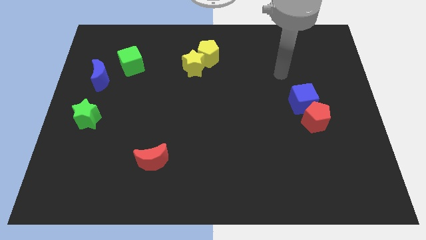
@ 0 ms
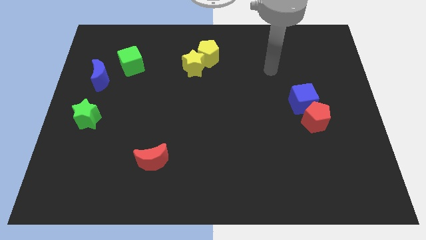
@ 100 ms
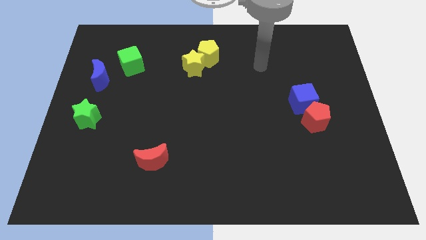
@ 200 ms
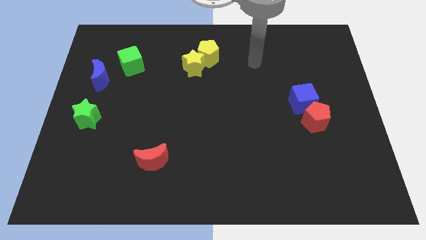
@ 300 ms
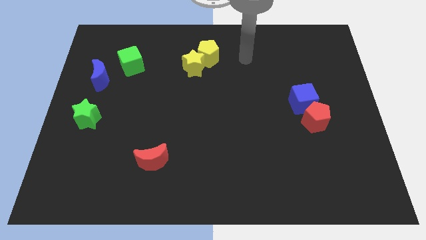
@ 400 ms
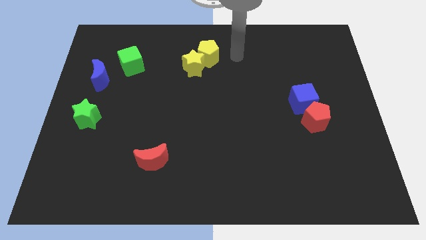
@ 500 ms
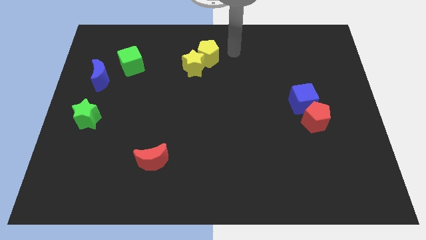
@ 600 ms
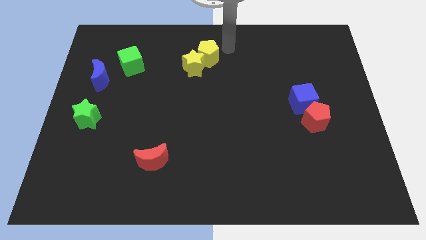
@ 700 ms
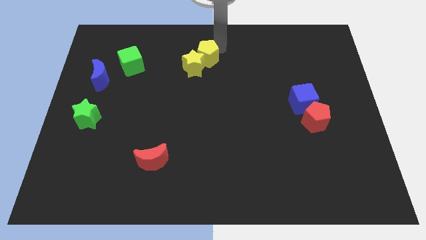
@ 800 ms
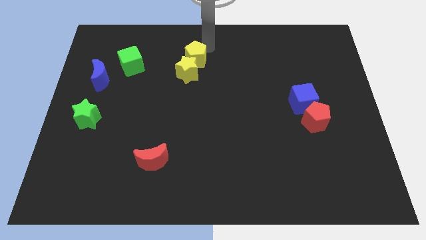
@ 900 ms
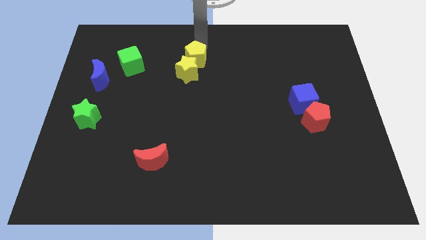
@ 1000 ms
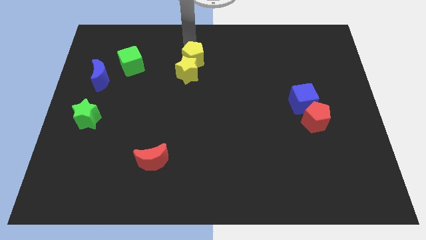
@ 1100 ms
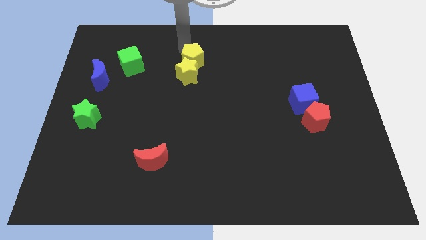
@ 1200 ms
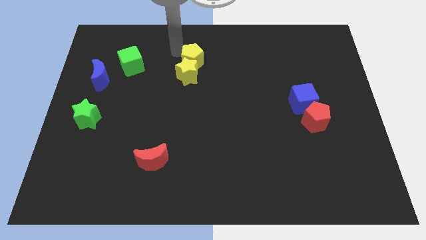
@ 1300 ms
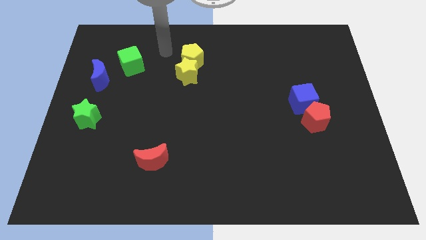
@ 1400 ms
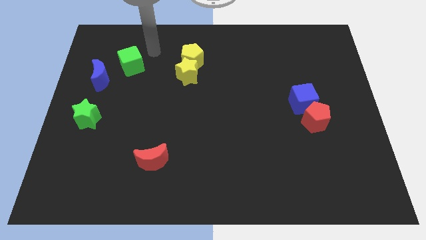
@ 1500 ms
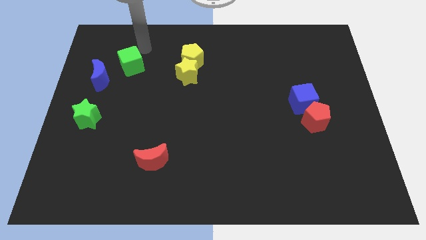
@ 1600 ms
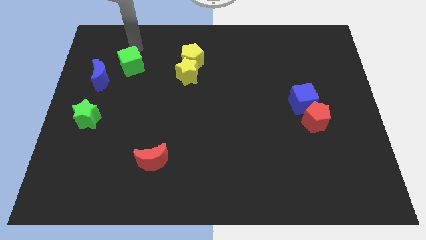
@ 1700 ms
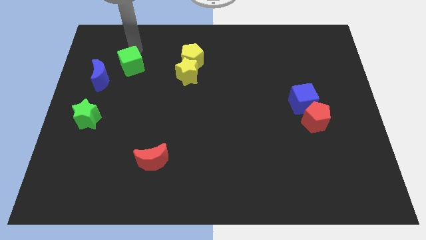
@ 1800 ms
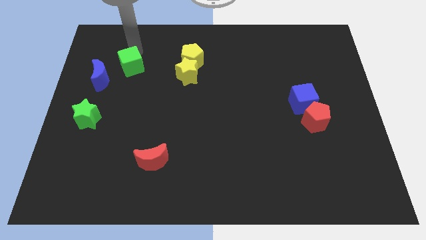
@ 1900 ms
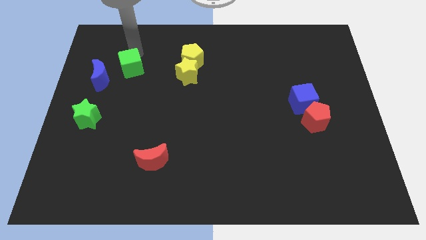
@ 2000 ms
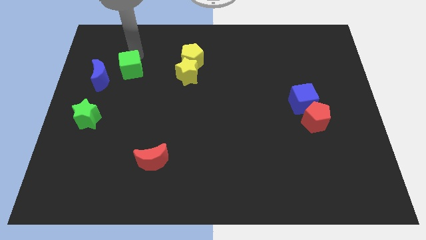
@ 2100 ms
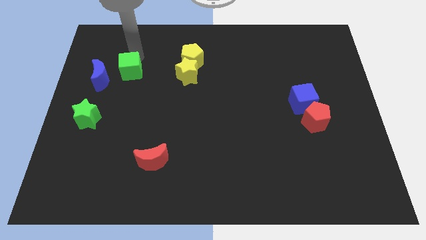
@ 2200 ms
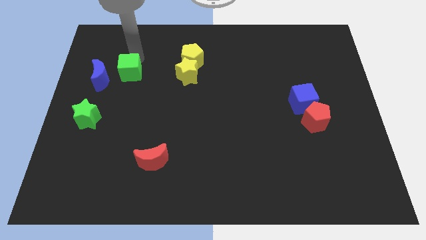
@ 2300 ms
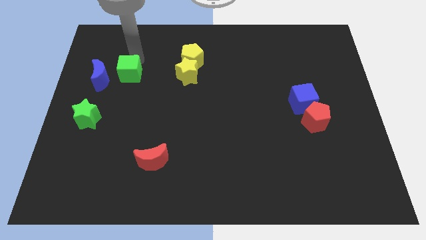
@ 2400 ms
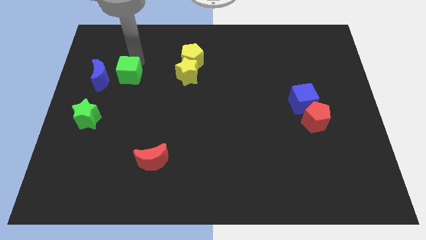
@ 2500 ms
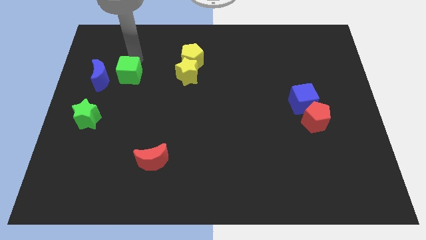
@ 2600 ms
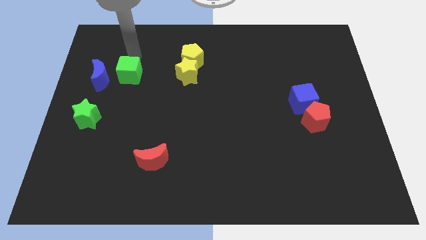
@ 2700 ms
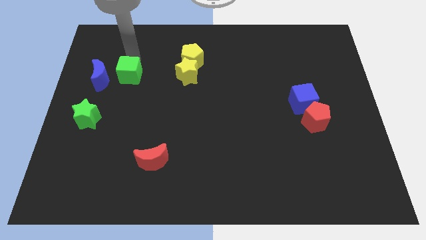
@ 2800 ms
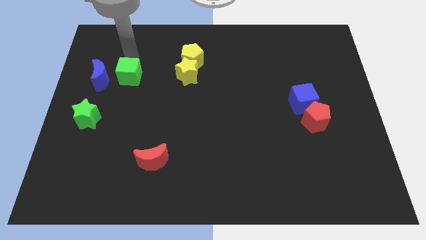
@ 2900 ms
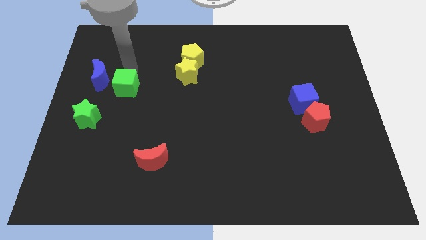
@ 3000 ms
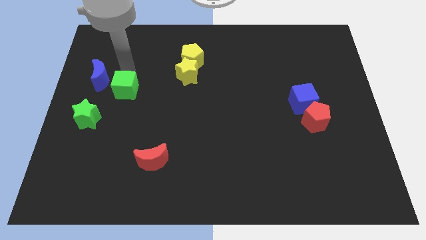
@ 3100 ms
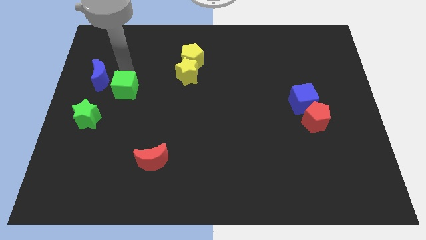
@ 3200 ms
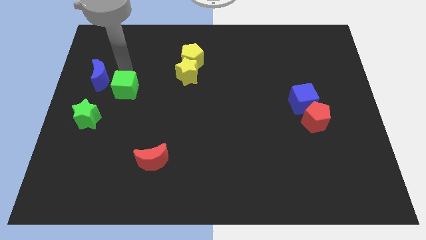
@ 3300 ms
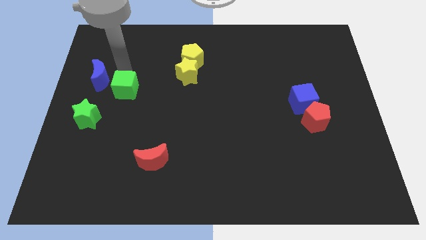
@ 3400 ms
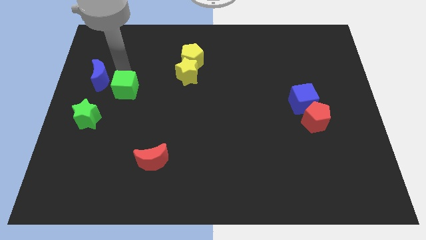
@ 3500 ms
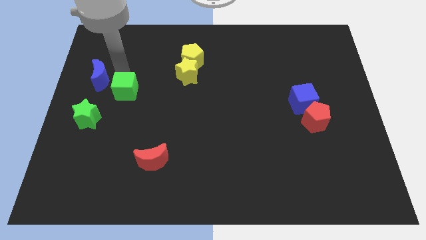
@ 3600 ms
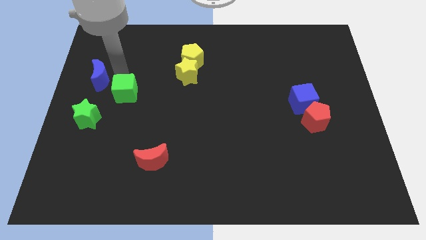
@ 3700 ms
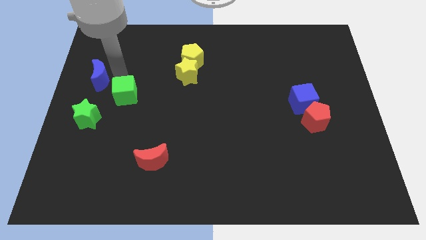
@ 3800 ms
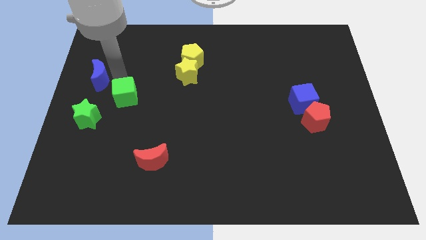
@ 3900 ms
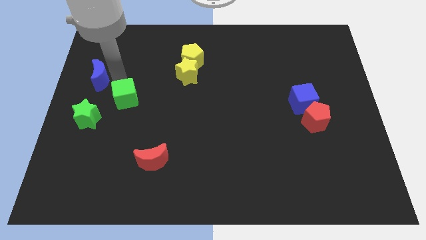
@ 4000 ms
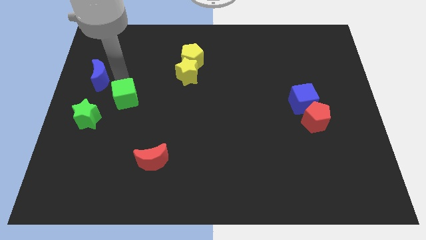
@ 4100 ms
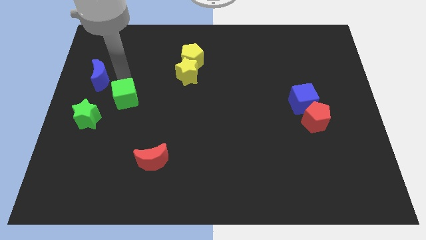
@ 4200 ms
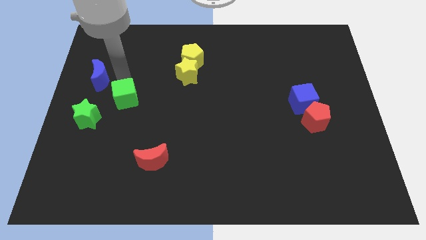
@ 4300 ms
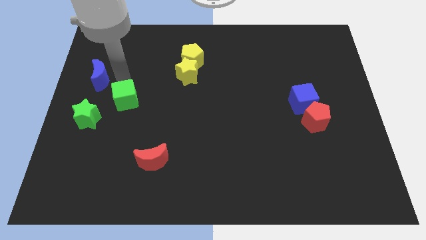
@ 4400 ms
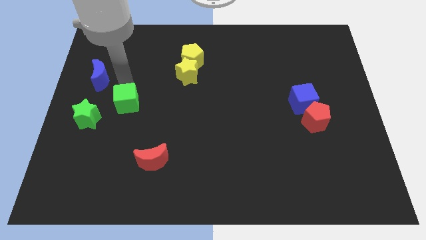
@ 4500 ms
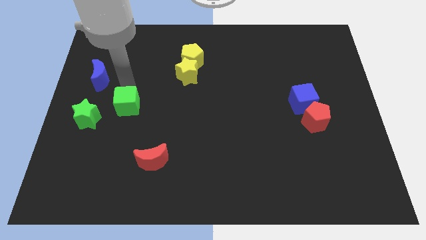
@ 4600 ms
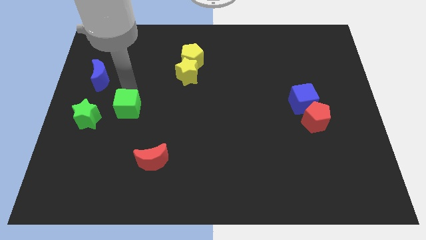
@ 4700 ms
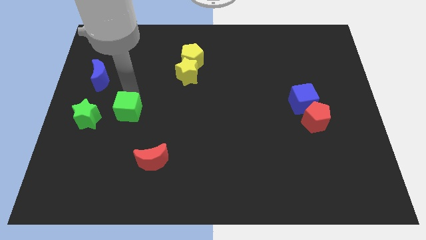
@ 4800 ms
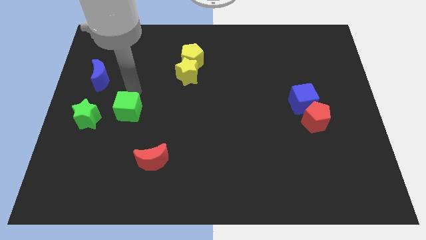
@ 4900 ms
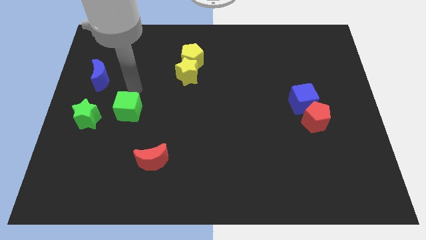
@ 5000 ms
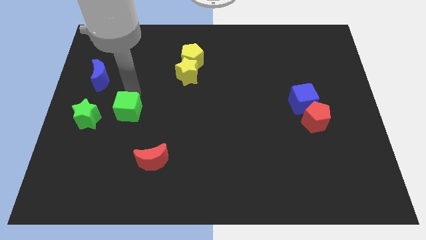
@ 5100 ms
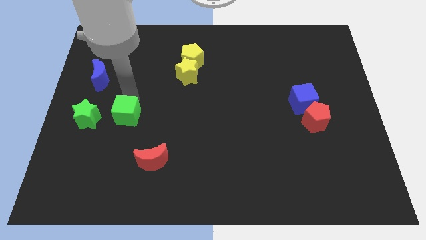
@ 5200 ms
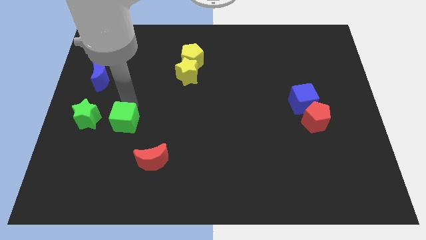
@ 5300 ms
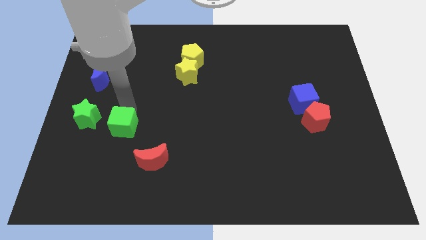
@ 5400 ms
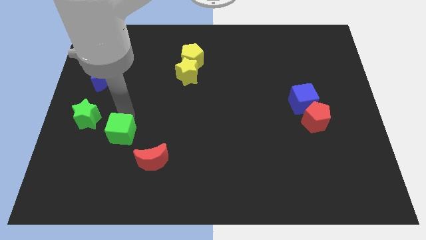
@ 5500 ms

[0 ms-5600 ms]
move the green cube downwards

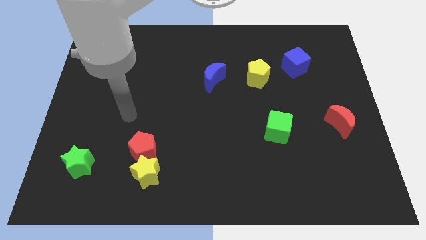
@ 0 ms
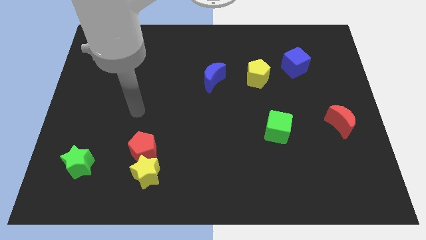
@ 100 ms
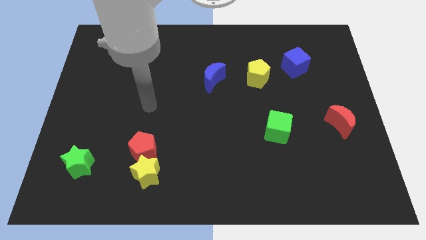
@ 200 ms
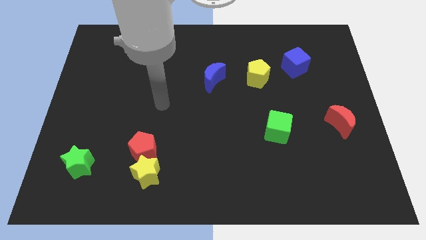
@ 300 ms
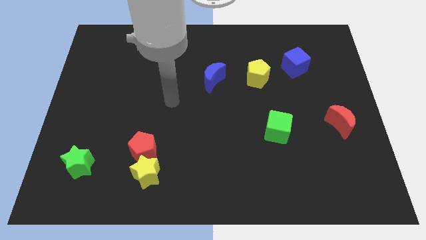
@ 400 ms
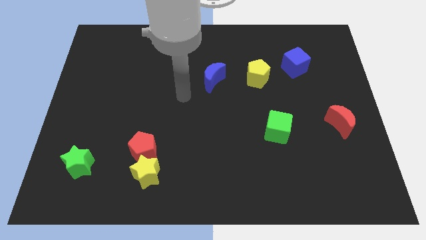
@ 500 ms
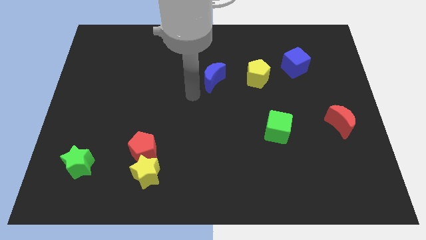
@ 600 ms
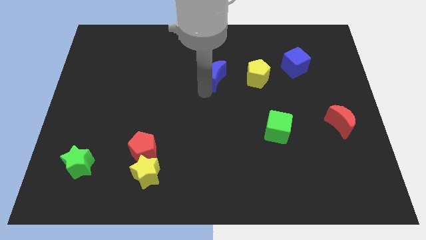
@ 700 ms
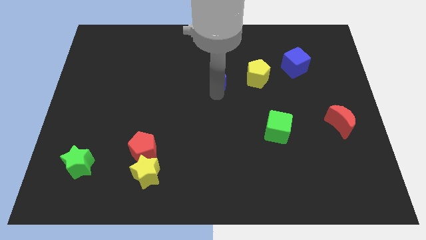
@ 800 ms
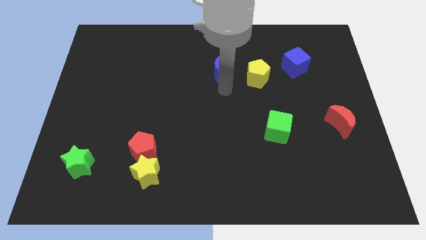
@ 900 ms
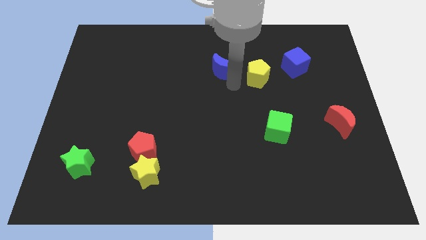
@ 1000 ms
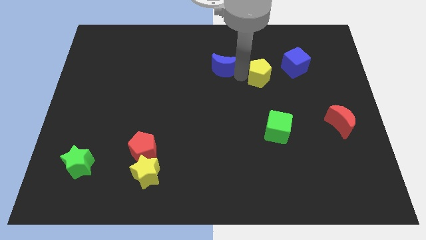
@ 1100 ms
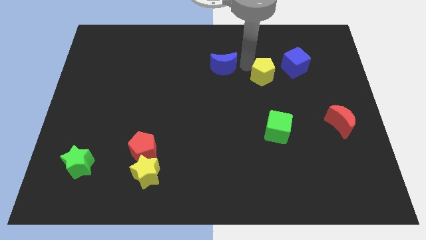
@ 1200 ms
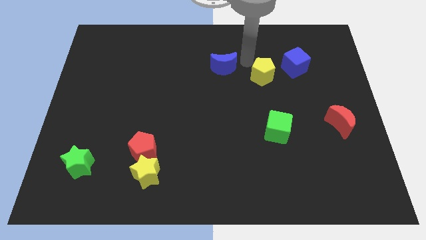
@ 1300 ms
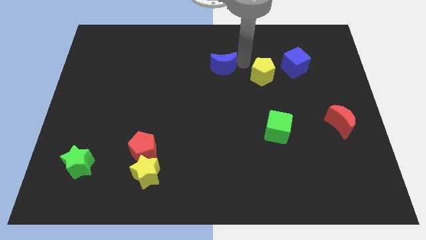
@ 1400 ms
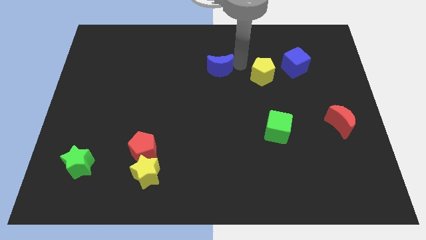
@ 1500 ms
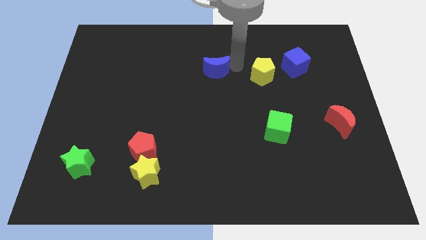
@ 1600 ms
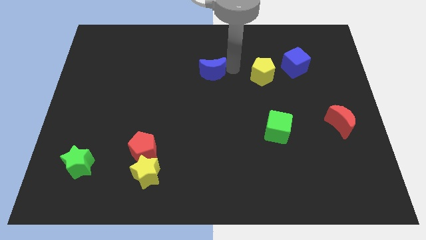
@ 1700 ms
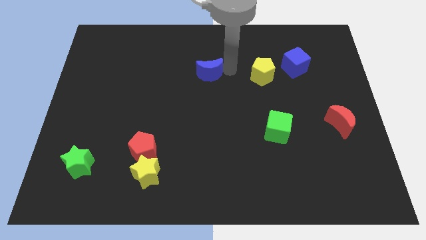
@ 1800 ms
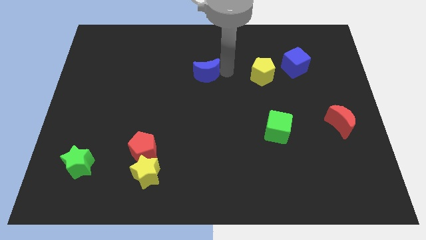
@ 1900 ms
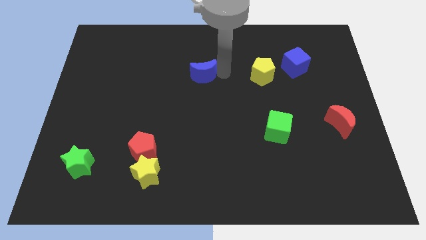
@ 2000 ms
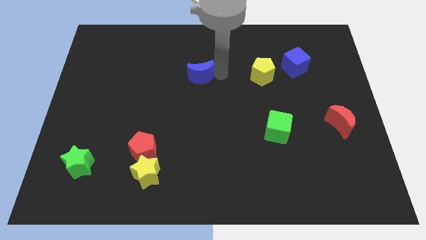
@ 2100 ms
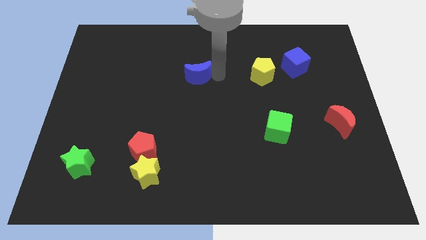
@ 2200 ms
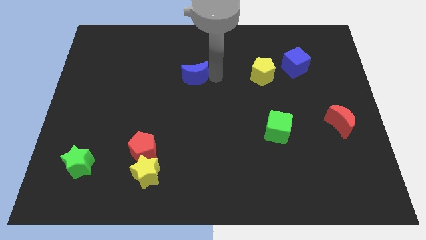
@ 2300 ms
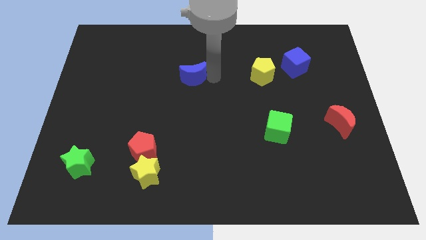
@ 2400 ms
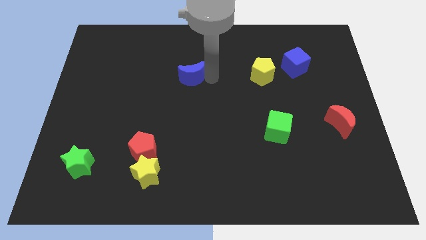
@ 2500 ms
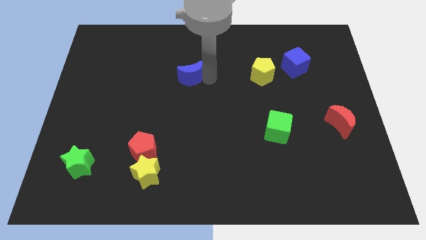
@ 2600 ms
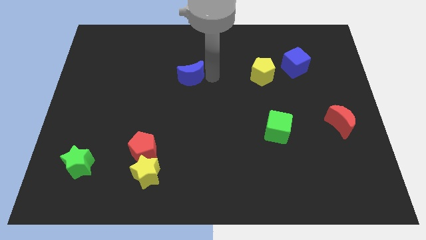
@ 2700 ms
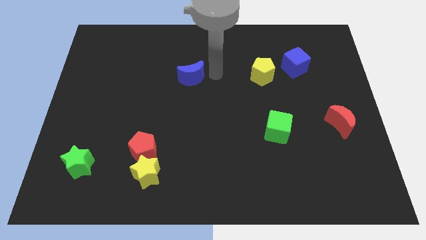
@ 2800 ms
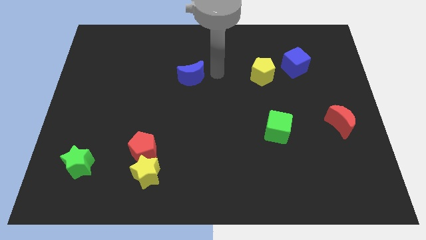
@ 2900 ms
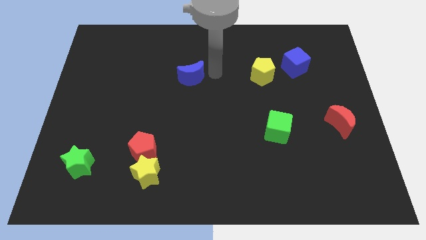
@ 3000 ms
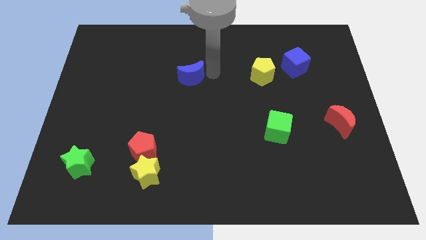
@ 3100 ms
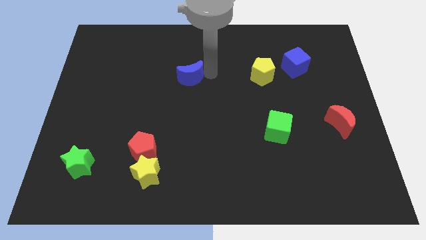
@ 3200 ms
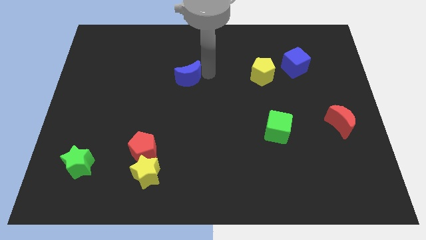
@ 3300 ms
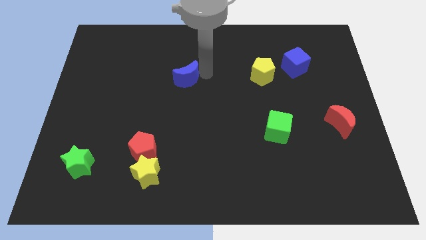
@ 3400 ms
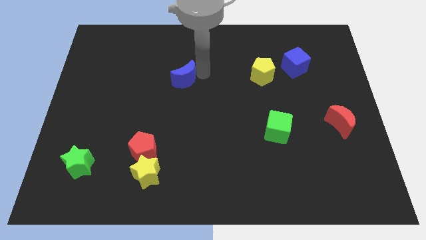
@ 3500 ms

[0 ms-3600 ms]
push the blue moon slightly to the left
